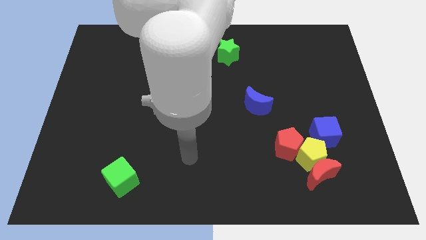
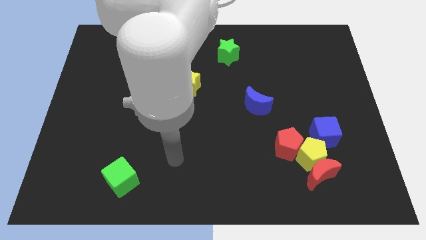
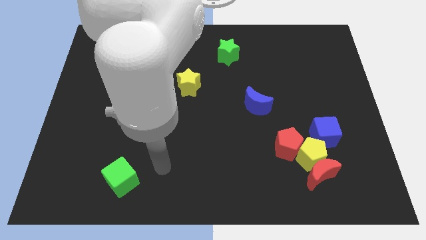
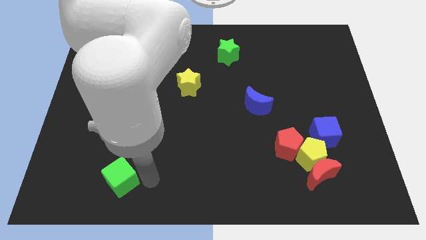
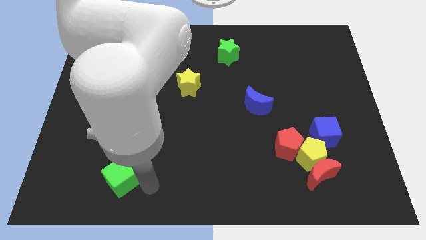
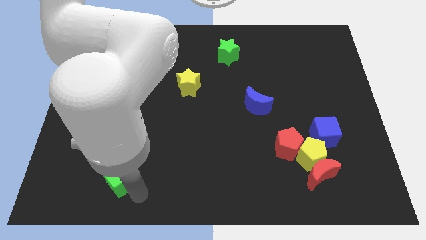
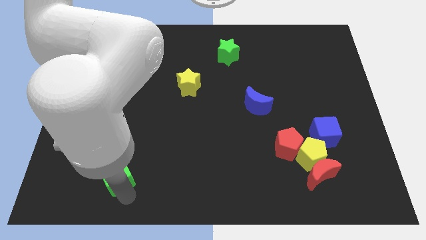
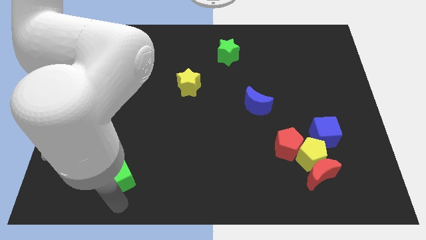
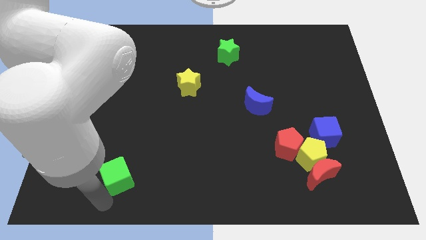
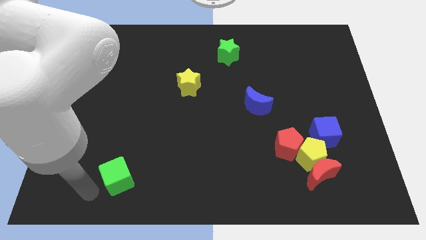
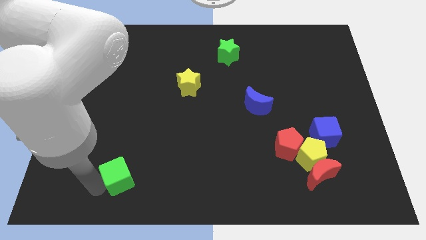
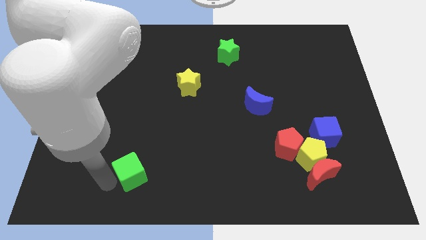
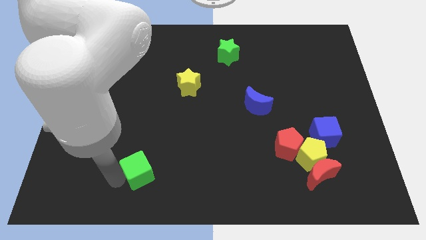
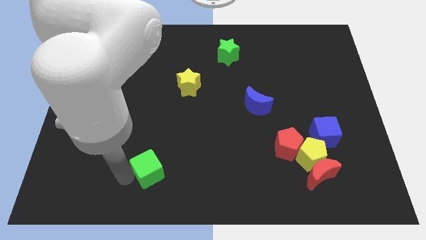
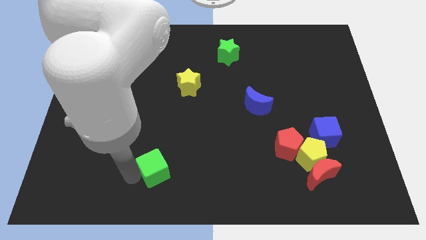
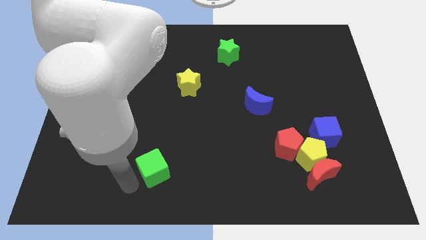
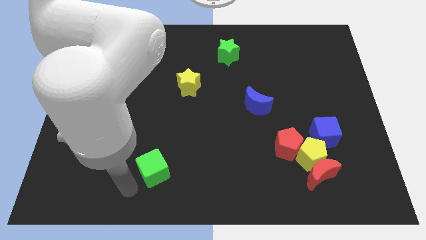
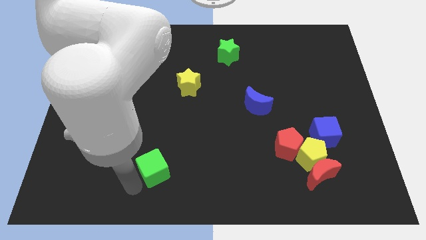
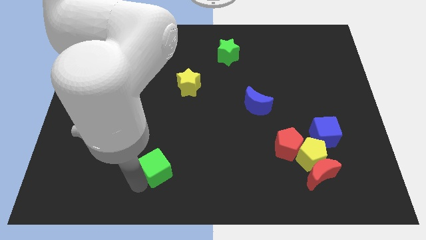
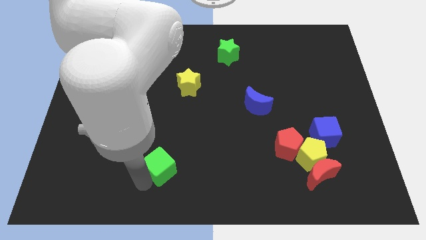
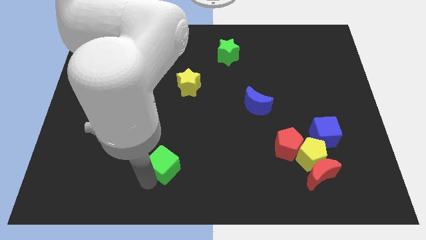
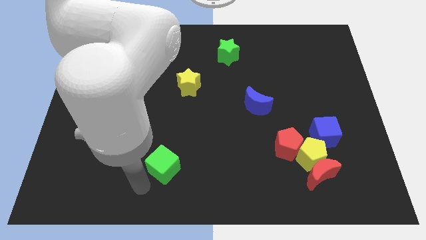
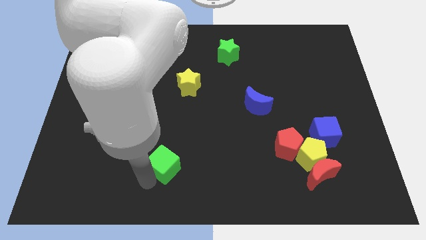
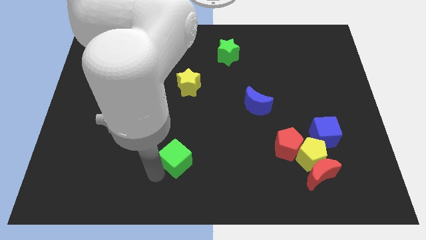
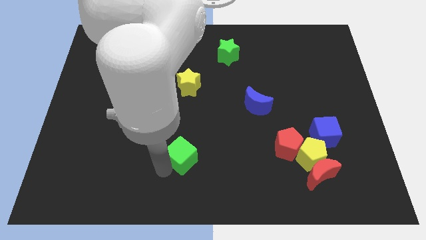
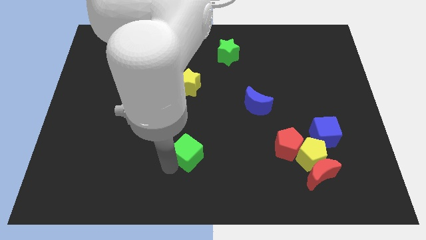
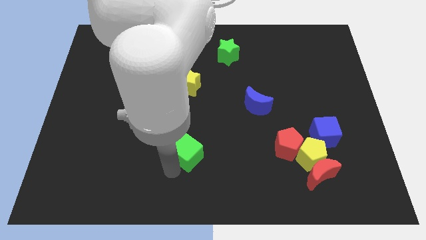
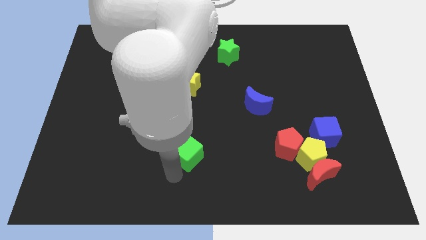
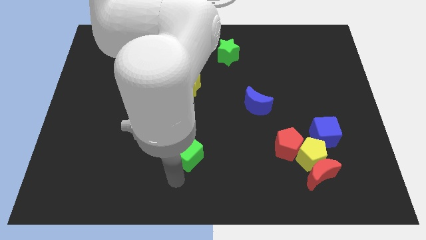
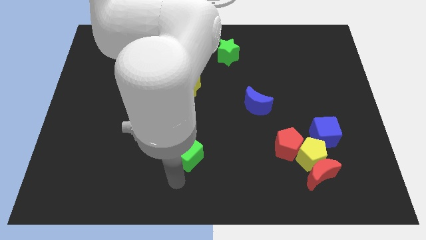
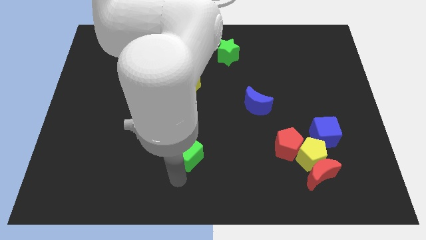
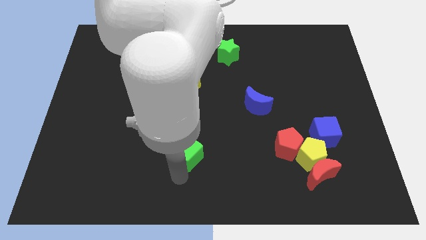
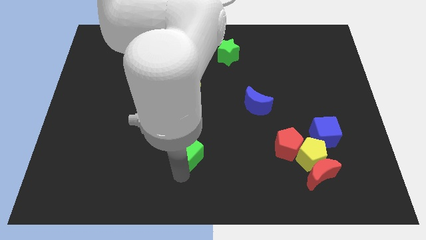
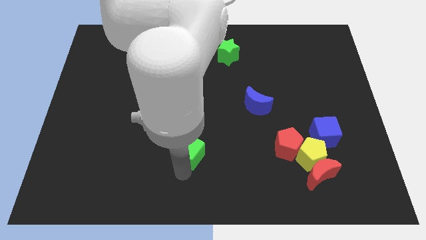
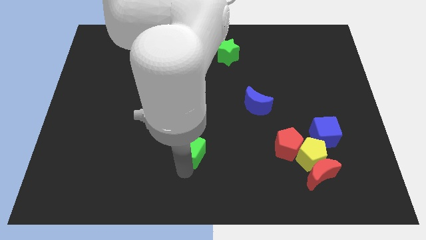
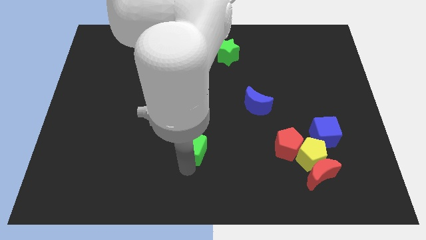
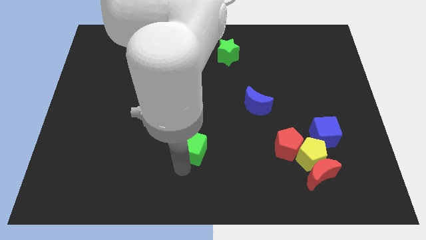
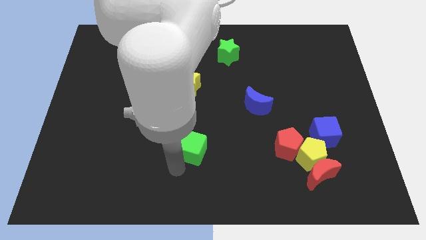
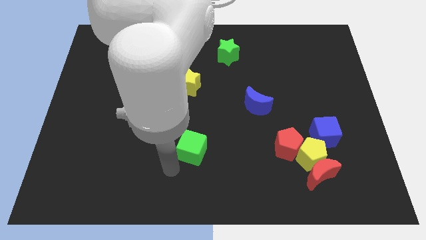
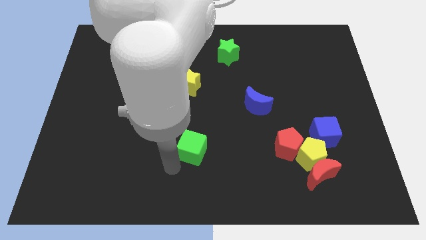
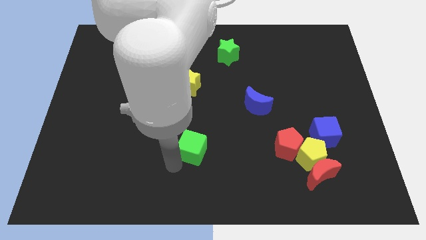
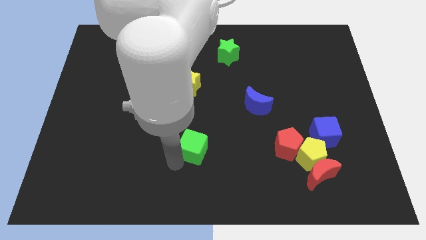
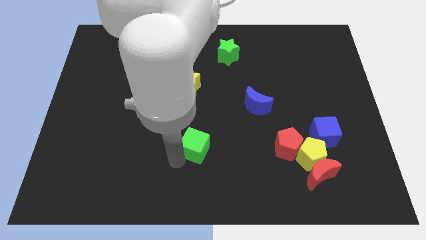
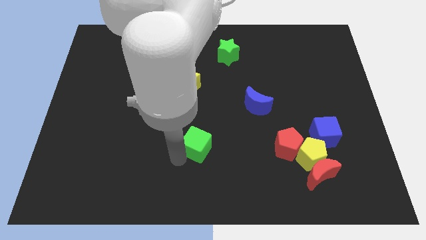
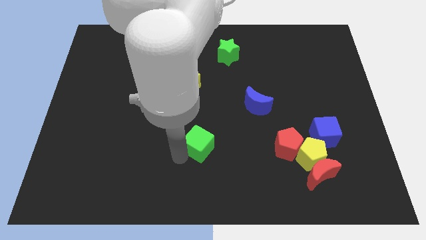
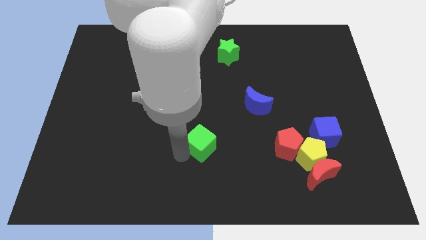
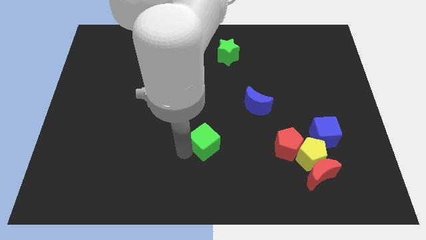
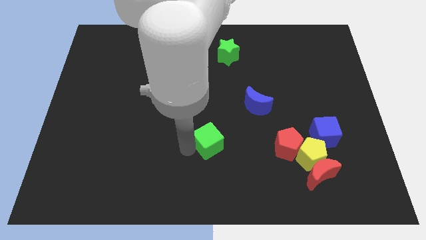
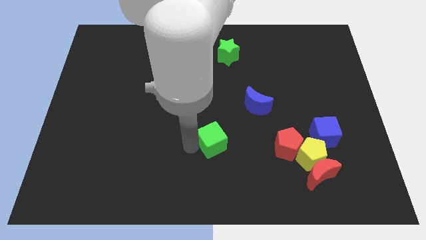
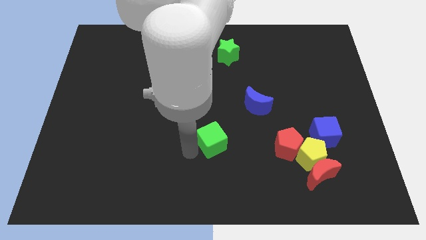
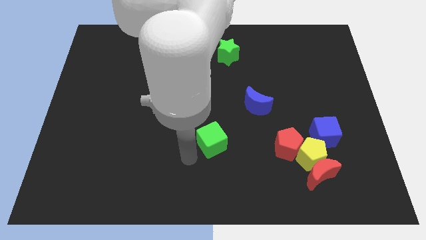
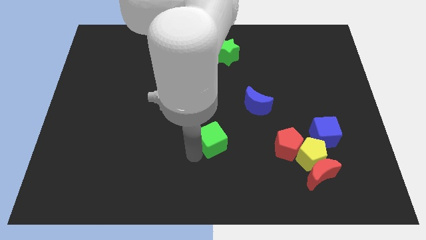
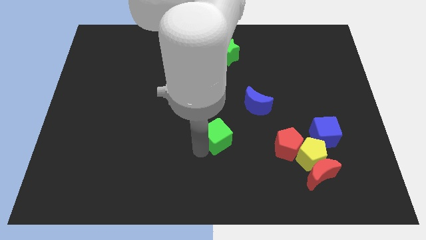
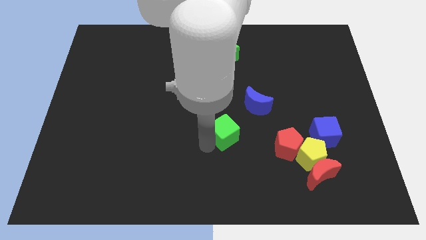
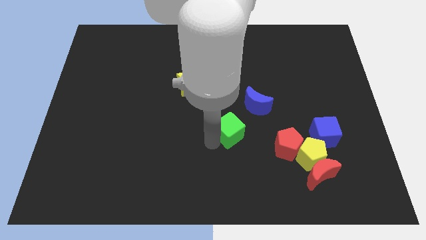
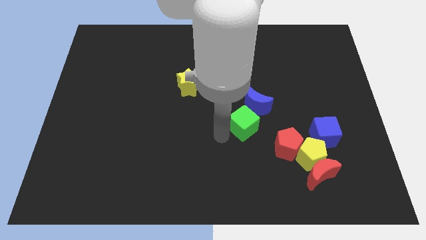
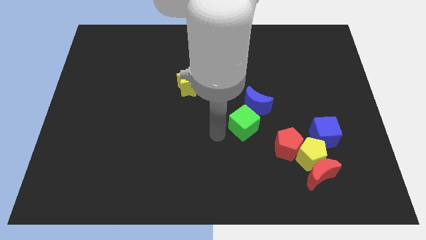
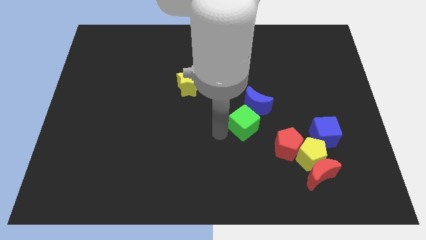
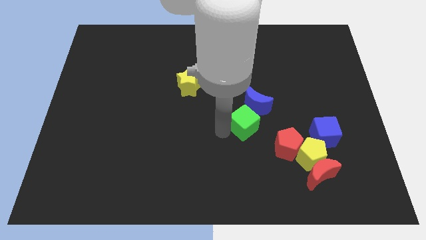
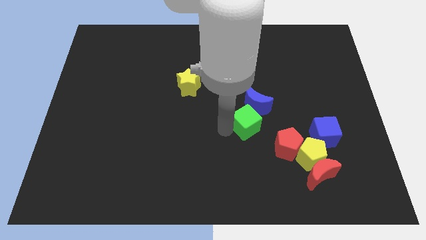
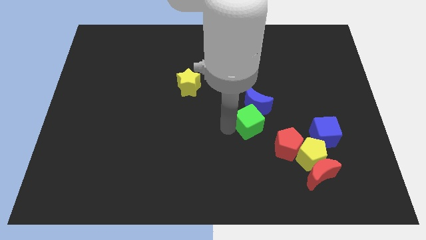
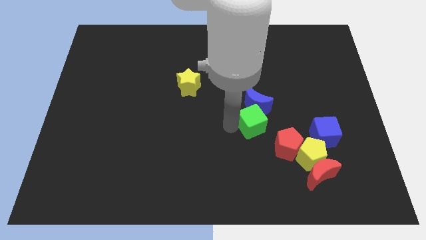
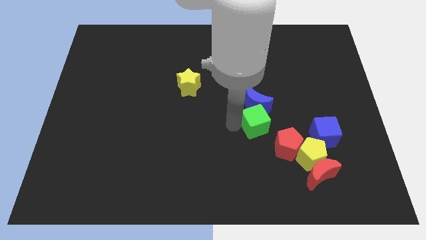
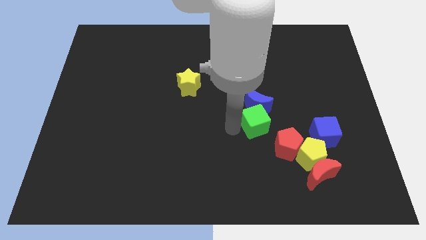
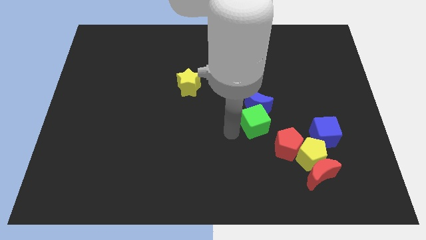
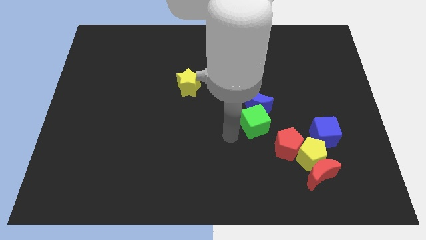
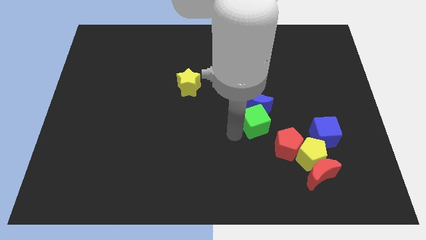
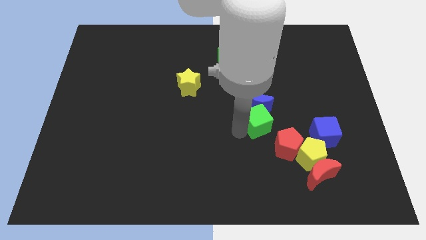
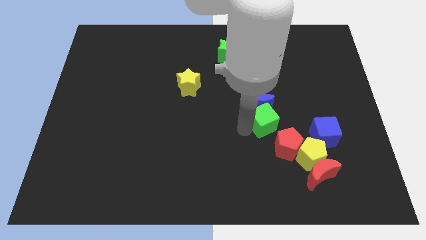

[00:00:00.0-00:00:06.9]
put the green cube above the red pentagon

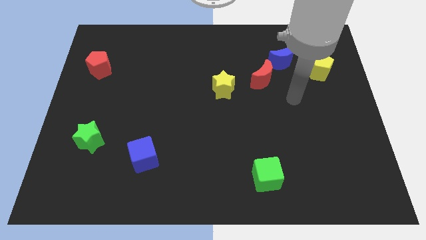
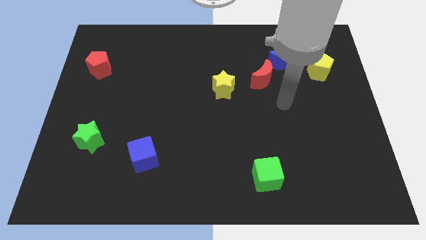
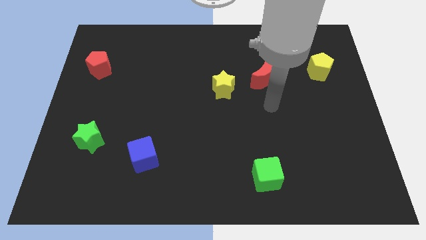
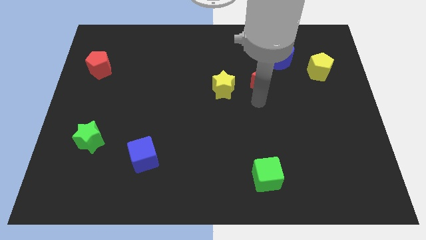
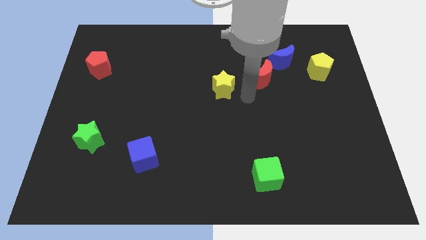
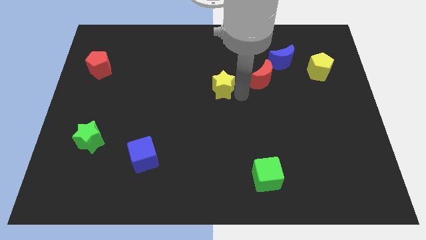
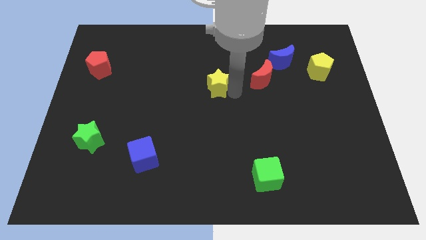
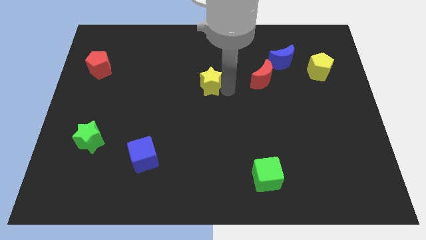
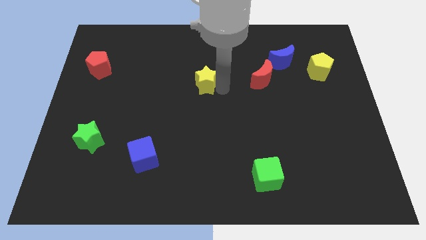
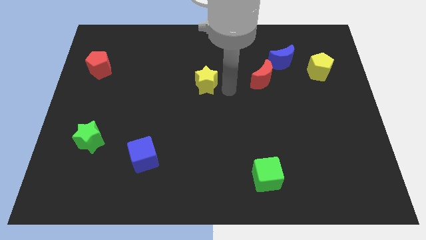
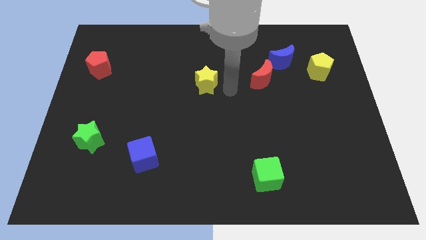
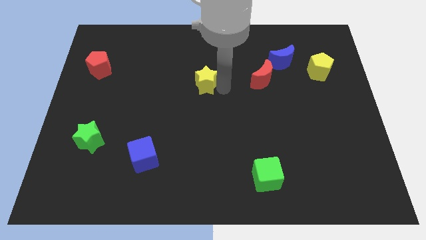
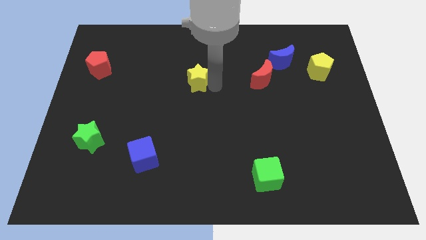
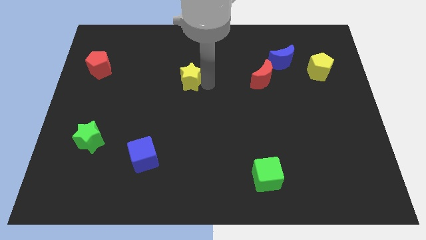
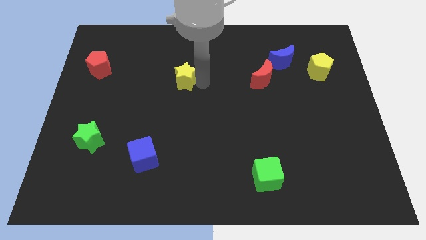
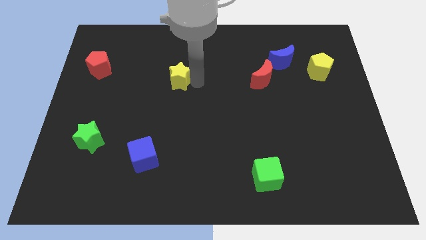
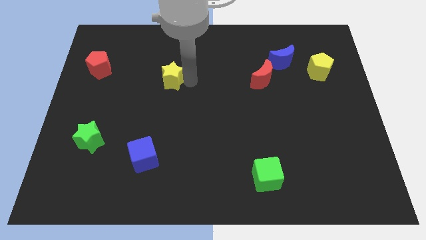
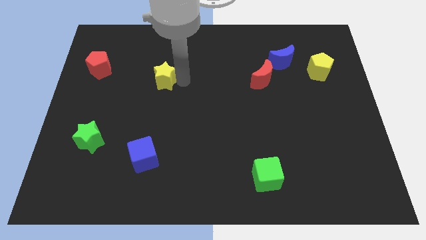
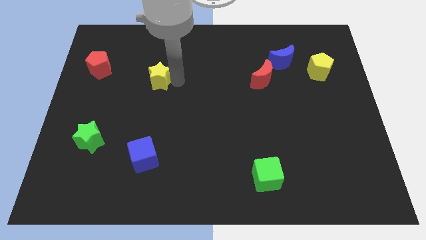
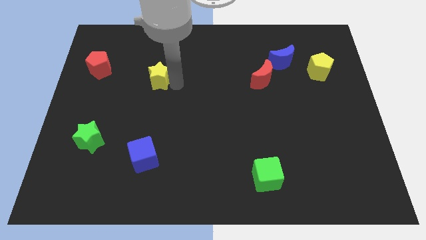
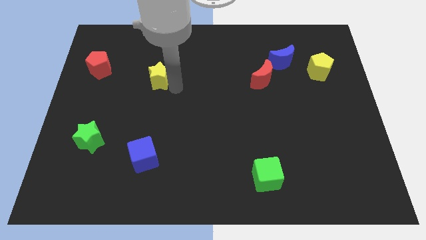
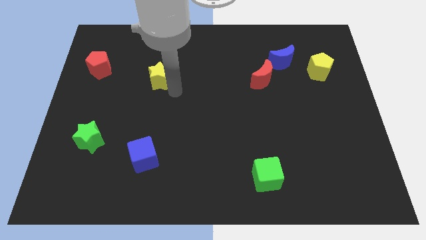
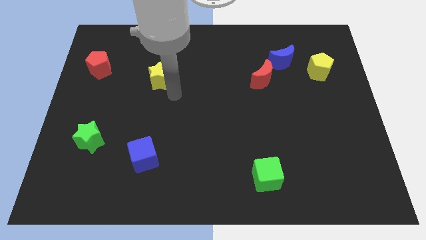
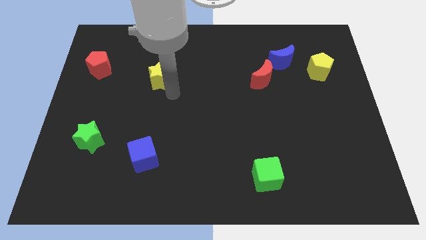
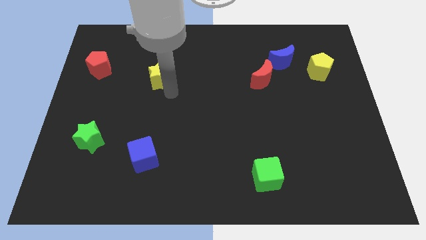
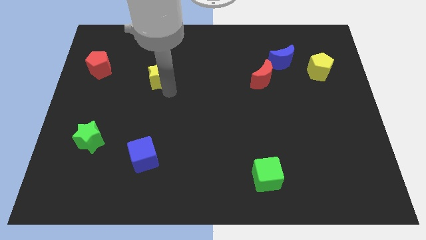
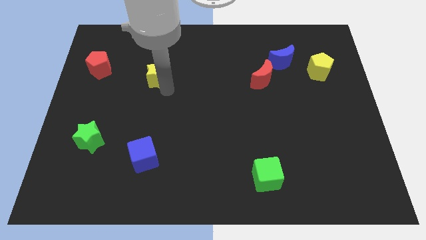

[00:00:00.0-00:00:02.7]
move the yellow star just right of the red pentagon
